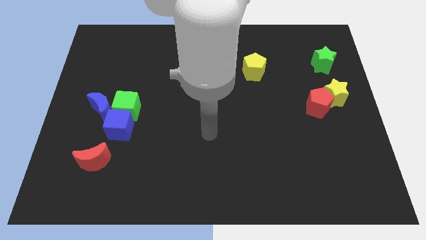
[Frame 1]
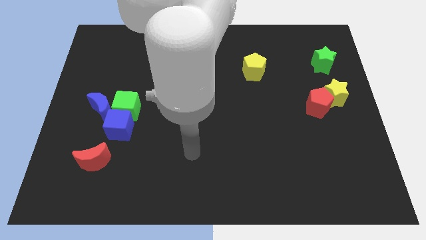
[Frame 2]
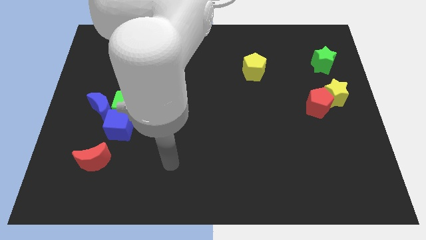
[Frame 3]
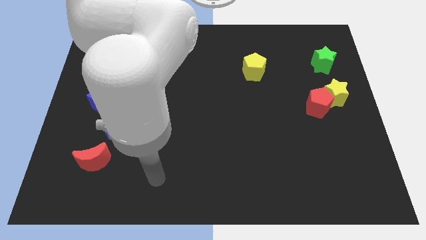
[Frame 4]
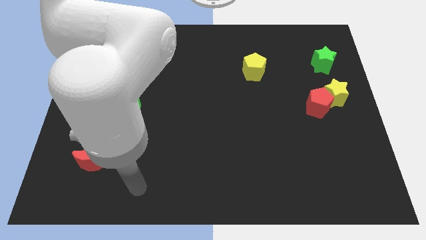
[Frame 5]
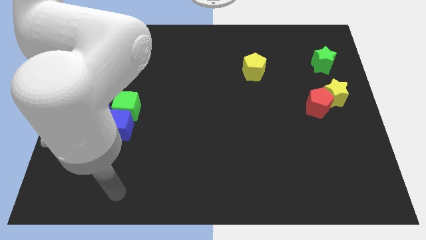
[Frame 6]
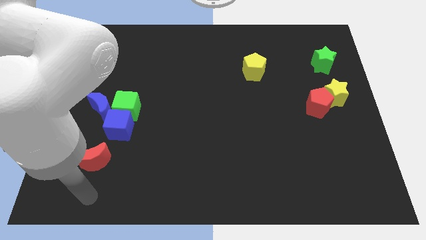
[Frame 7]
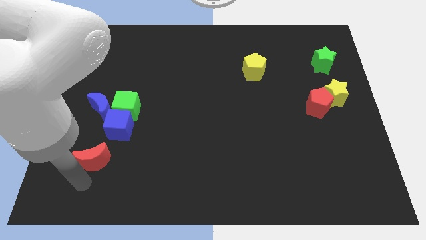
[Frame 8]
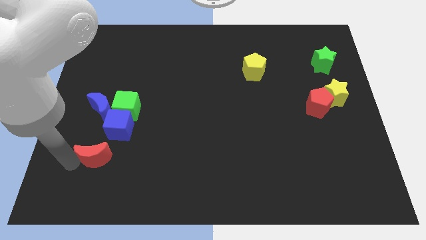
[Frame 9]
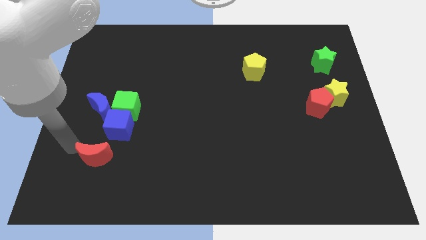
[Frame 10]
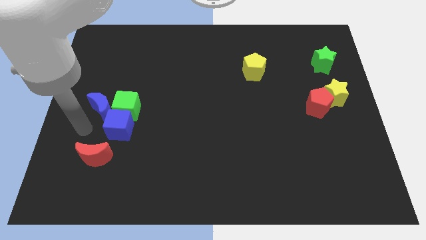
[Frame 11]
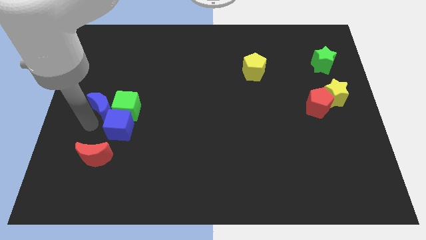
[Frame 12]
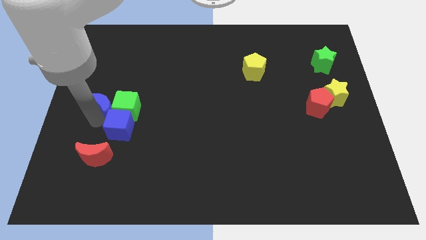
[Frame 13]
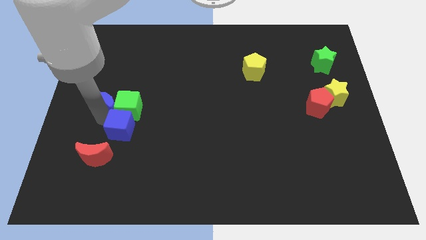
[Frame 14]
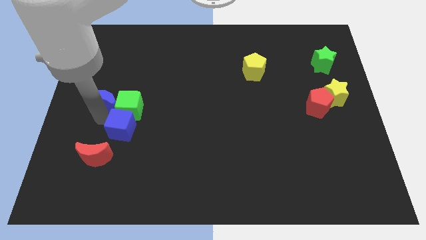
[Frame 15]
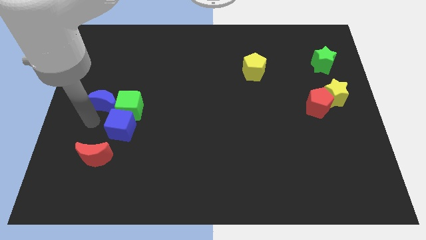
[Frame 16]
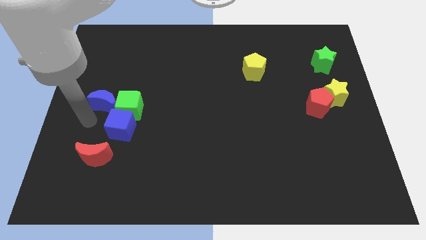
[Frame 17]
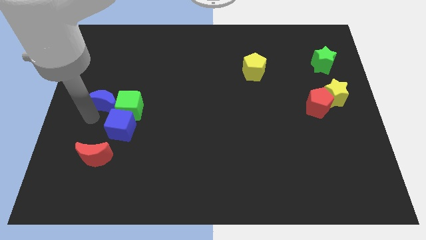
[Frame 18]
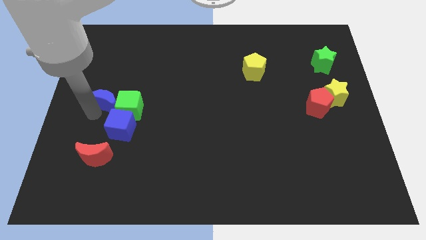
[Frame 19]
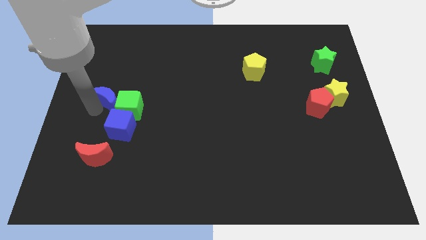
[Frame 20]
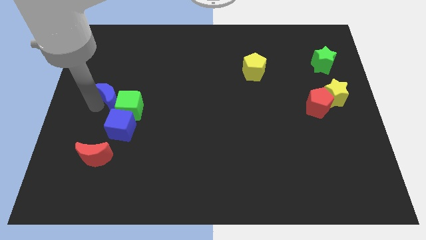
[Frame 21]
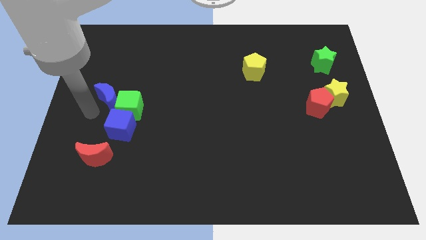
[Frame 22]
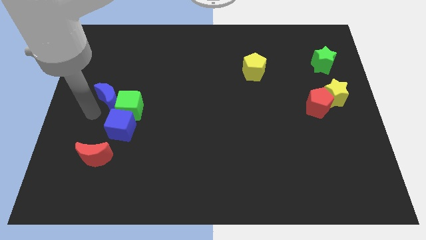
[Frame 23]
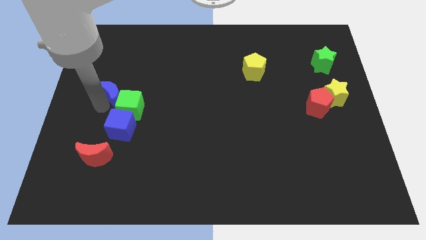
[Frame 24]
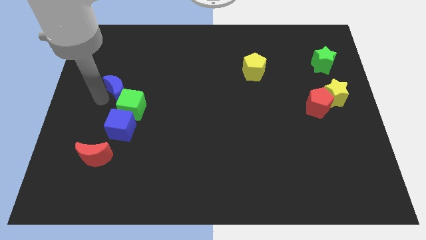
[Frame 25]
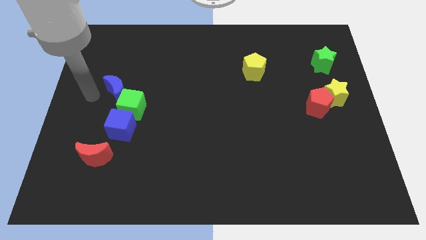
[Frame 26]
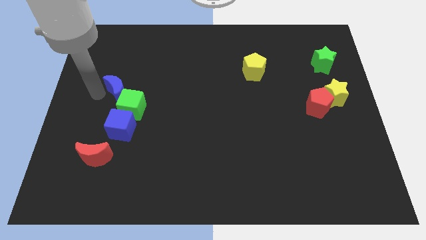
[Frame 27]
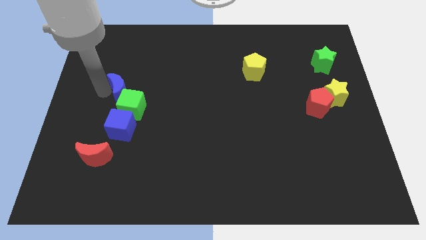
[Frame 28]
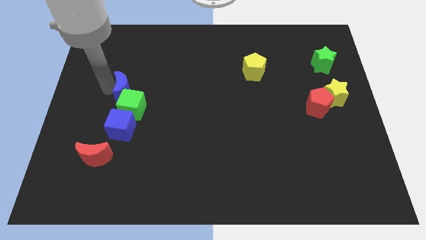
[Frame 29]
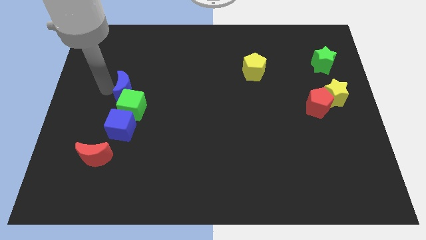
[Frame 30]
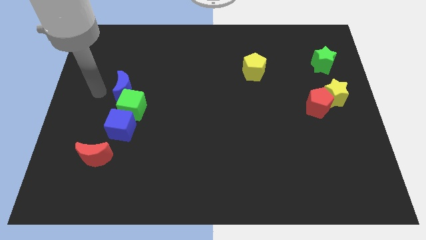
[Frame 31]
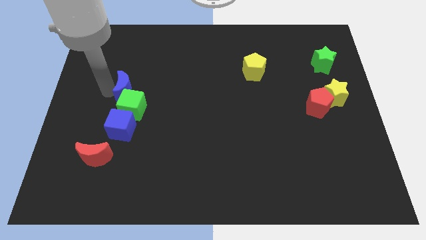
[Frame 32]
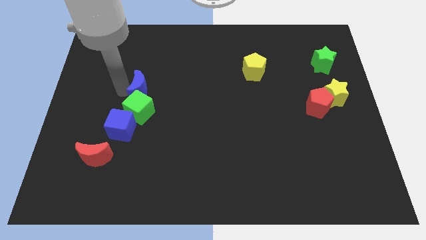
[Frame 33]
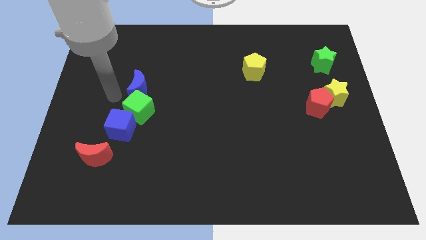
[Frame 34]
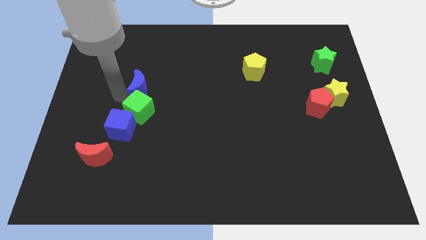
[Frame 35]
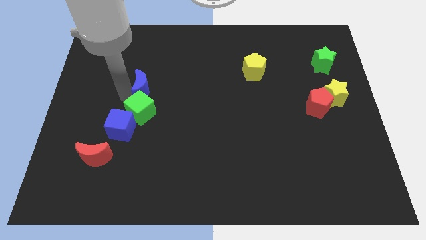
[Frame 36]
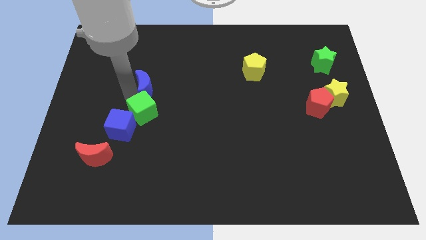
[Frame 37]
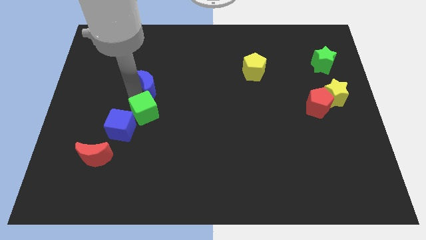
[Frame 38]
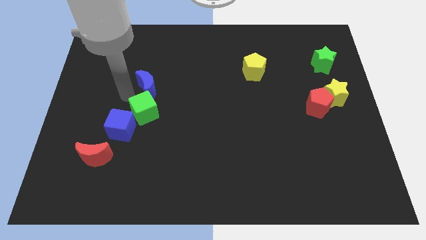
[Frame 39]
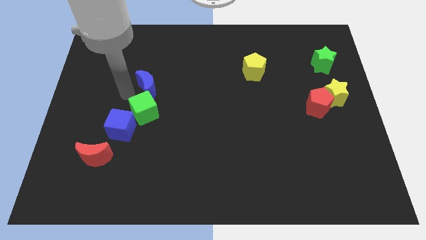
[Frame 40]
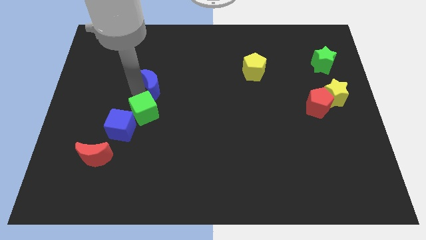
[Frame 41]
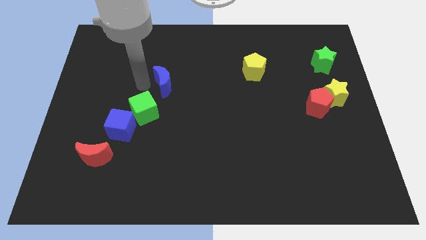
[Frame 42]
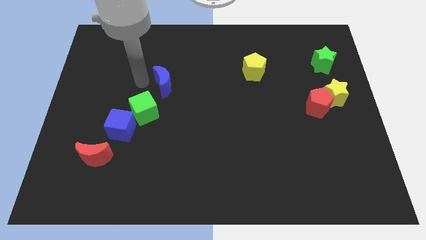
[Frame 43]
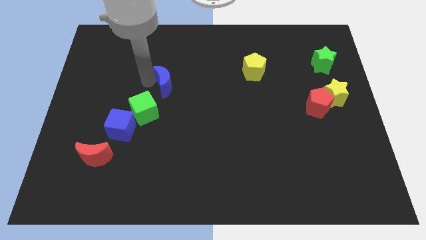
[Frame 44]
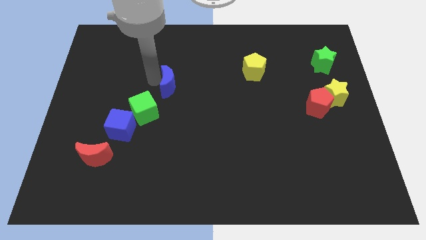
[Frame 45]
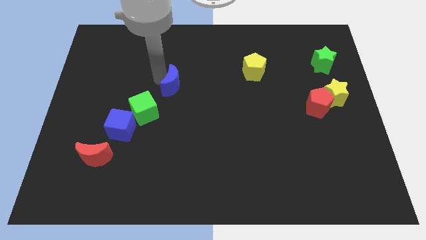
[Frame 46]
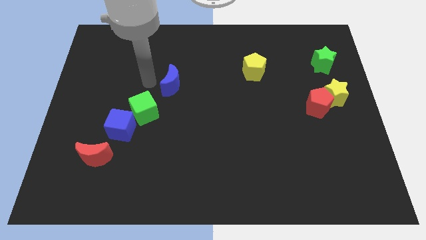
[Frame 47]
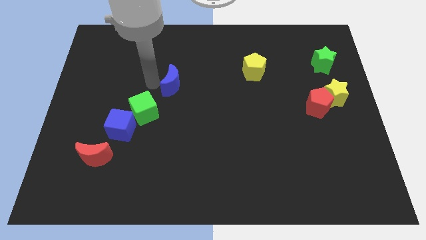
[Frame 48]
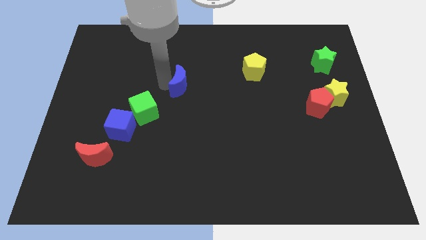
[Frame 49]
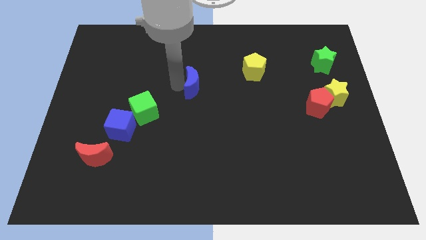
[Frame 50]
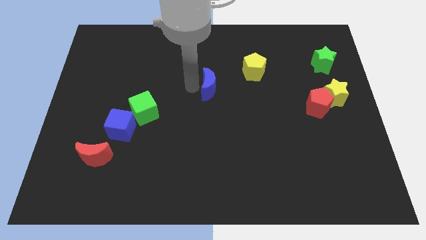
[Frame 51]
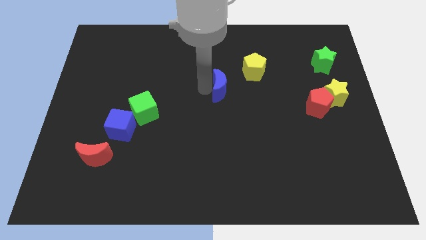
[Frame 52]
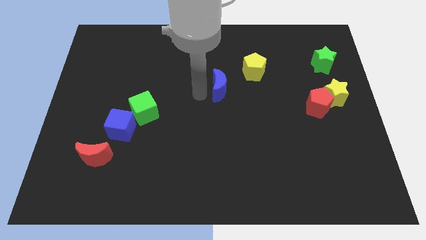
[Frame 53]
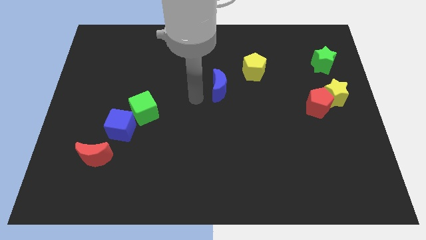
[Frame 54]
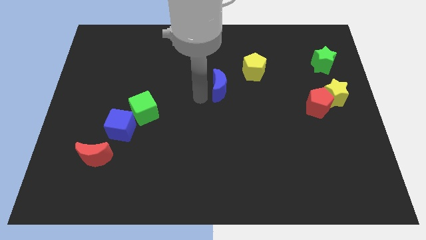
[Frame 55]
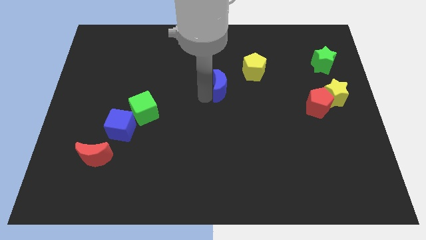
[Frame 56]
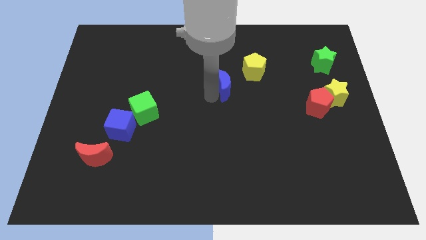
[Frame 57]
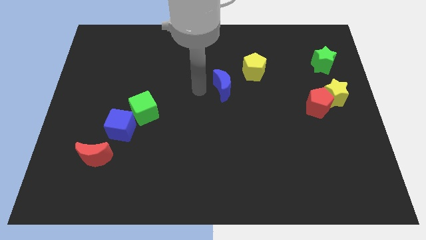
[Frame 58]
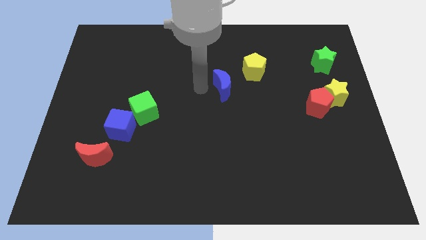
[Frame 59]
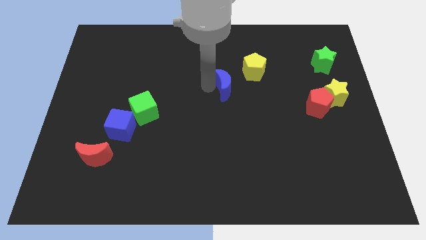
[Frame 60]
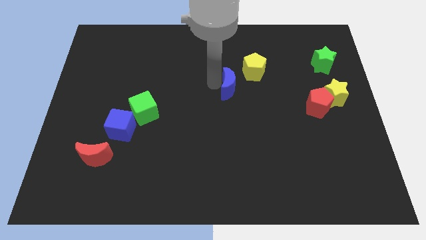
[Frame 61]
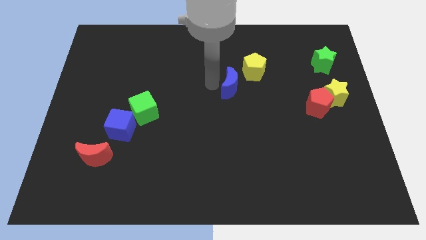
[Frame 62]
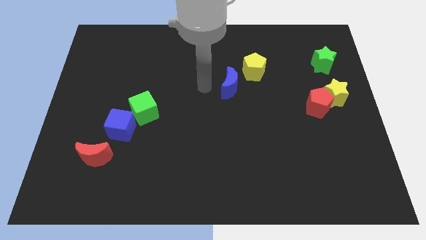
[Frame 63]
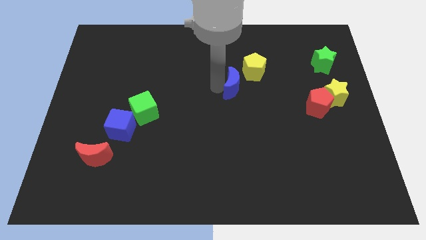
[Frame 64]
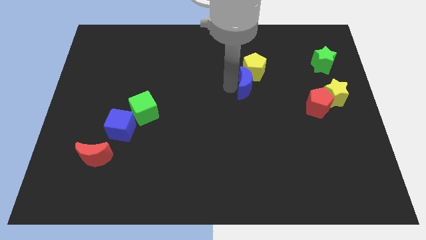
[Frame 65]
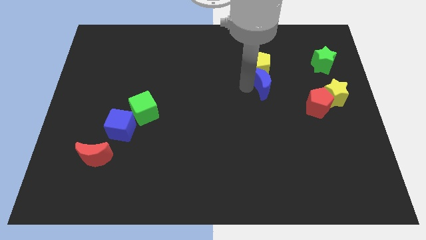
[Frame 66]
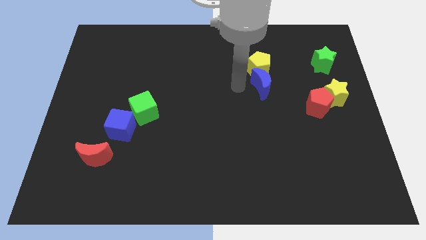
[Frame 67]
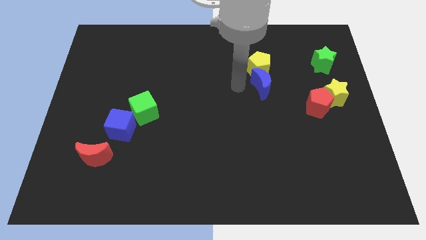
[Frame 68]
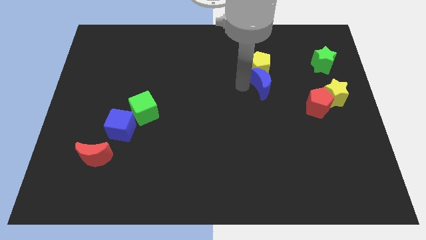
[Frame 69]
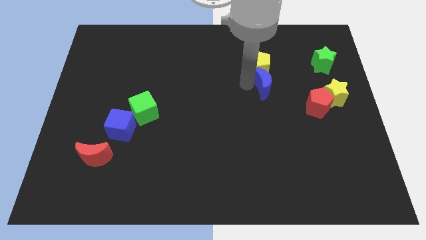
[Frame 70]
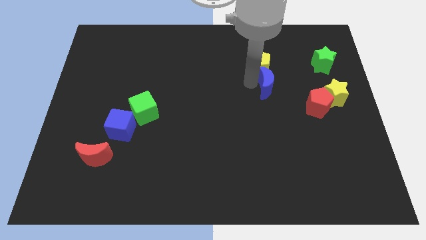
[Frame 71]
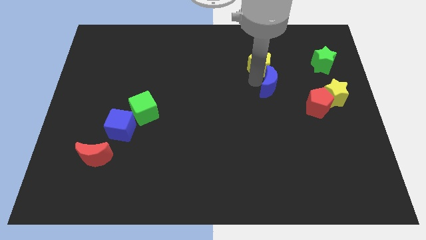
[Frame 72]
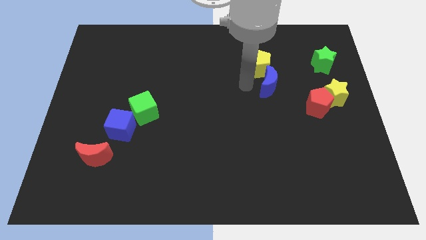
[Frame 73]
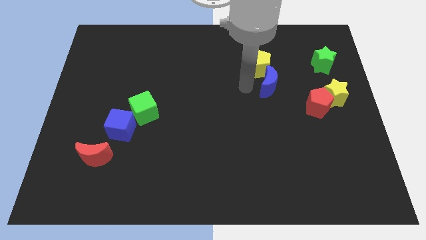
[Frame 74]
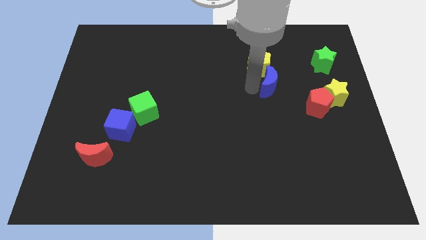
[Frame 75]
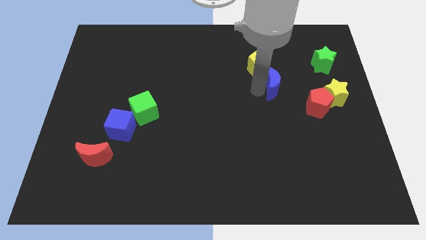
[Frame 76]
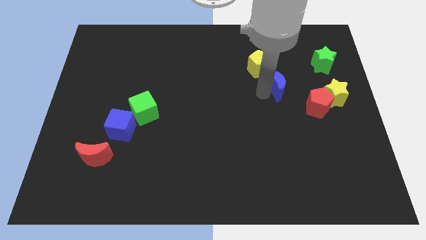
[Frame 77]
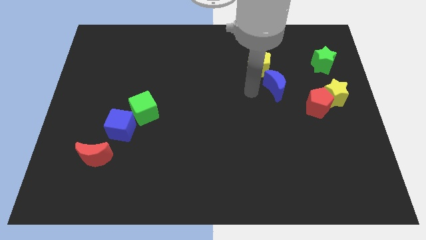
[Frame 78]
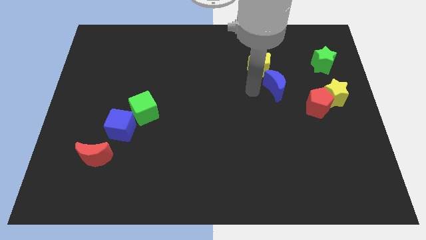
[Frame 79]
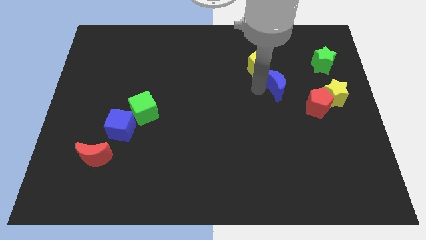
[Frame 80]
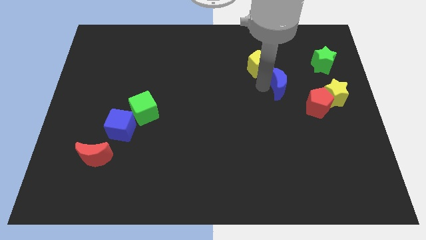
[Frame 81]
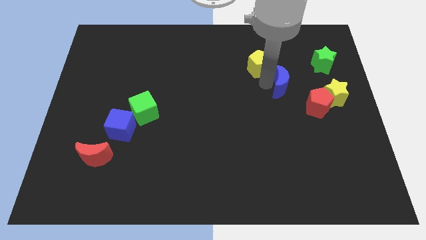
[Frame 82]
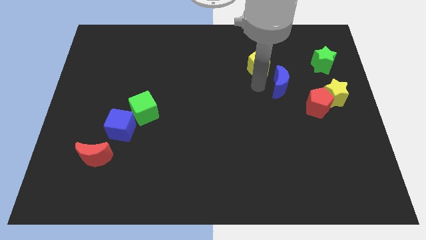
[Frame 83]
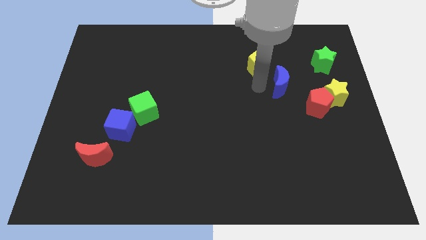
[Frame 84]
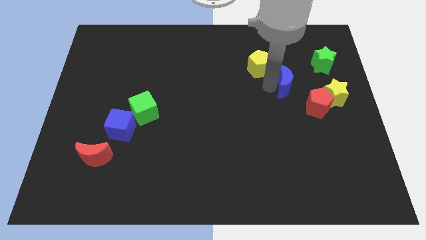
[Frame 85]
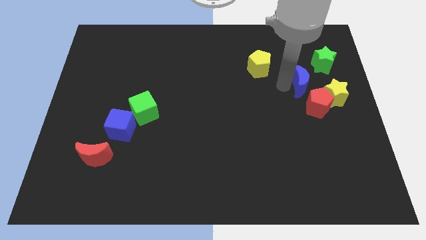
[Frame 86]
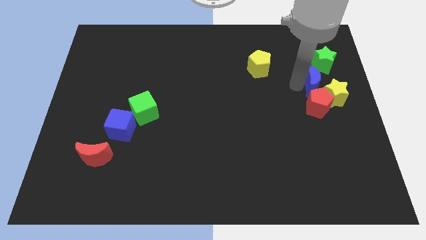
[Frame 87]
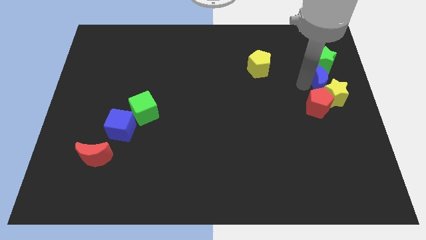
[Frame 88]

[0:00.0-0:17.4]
move the blue moon to the center right
